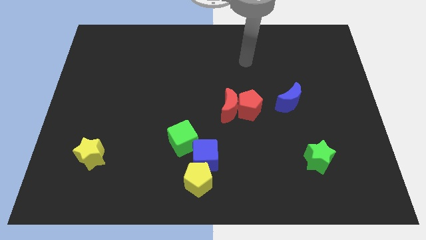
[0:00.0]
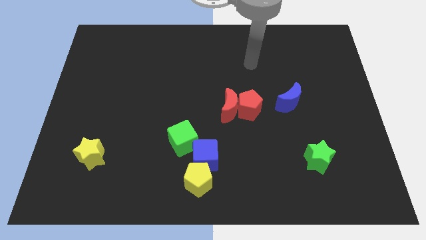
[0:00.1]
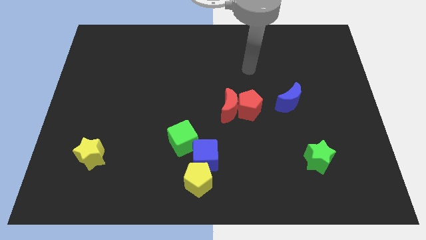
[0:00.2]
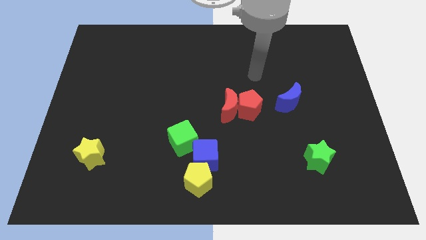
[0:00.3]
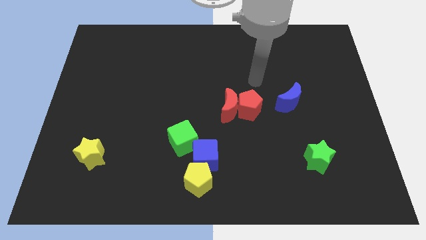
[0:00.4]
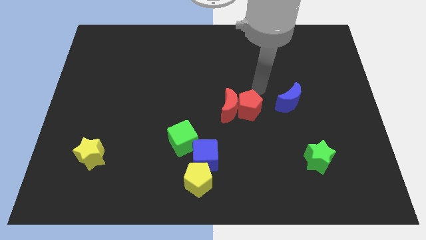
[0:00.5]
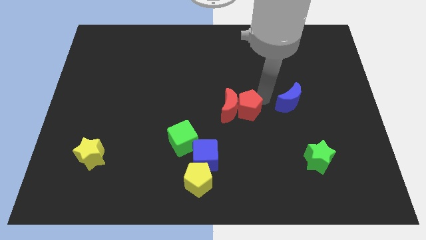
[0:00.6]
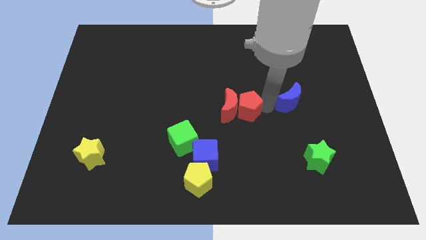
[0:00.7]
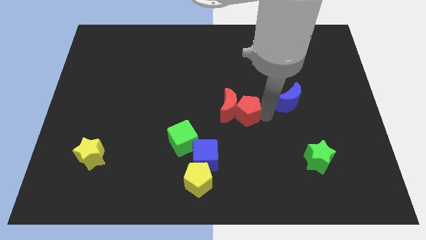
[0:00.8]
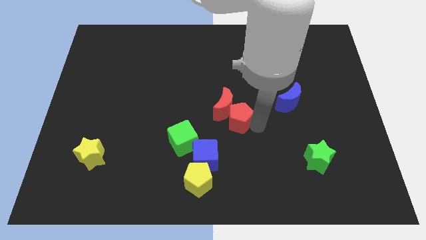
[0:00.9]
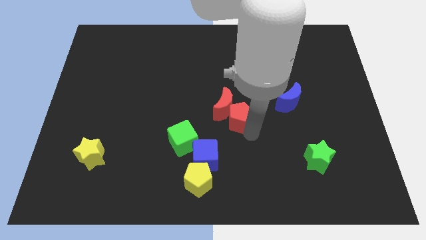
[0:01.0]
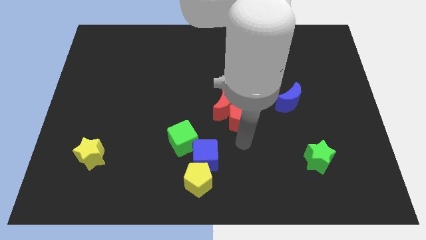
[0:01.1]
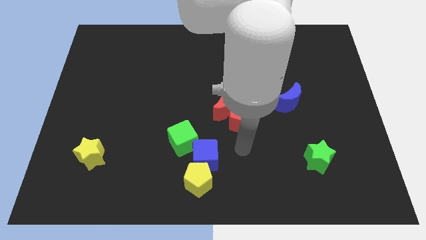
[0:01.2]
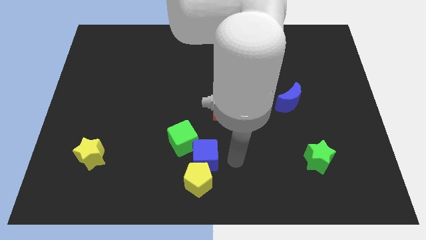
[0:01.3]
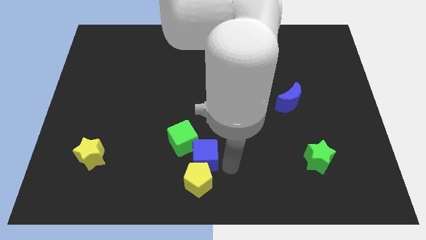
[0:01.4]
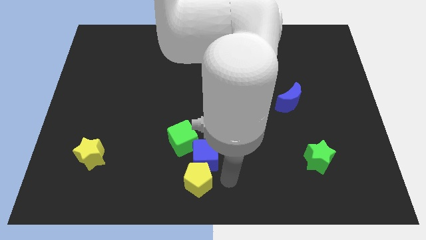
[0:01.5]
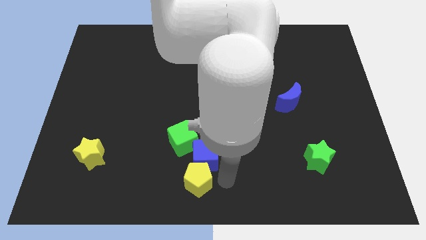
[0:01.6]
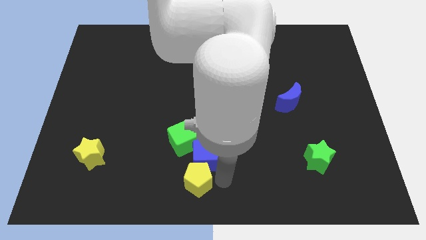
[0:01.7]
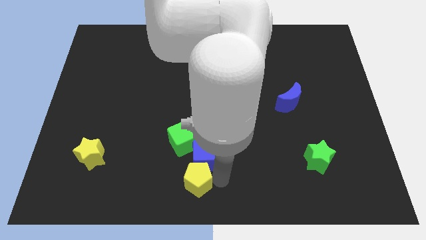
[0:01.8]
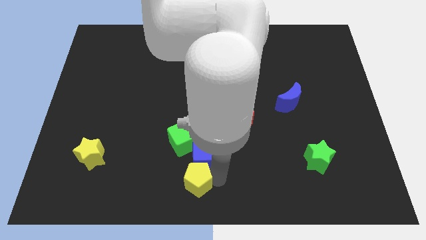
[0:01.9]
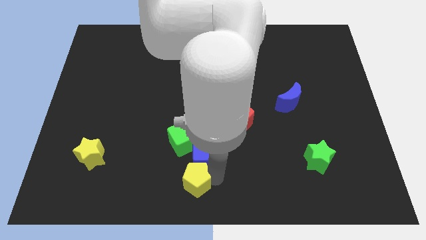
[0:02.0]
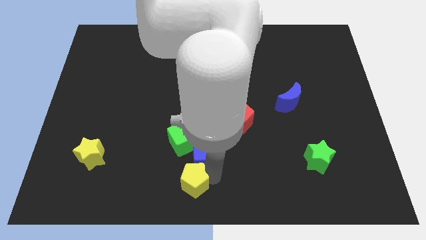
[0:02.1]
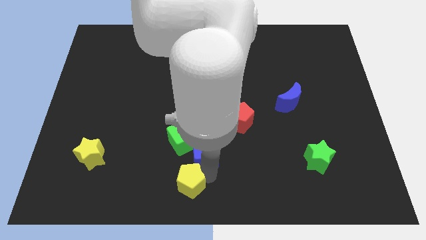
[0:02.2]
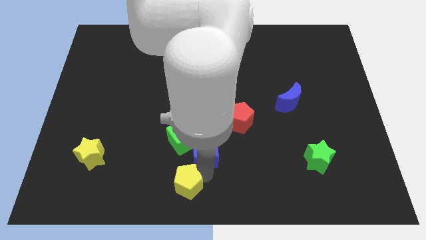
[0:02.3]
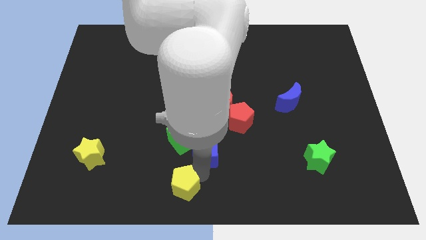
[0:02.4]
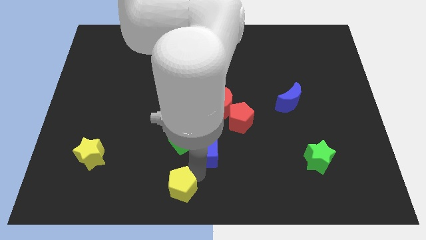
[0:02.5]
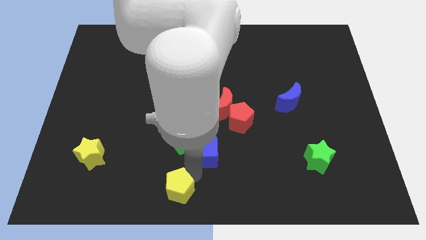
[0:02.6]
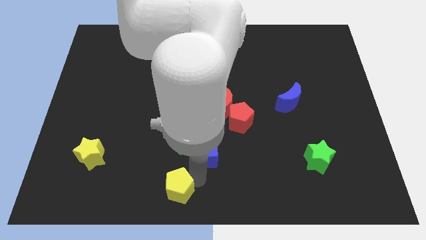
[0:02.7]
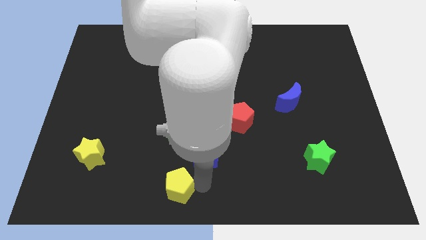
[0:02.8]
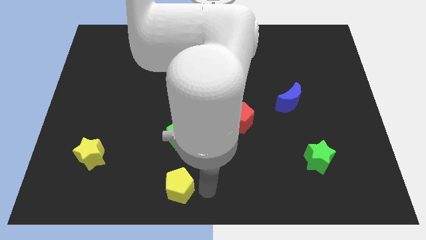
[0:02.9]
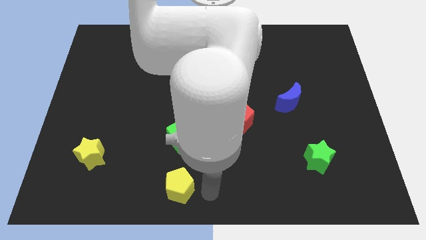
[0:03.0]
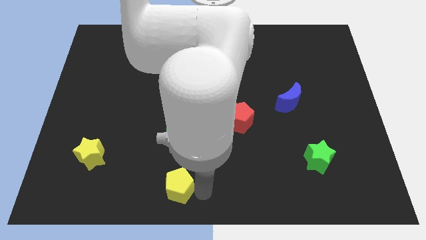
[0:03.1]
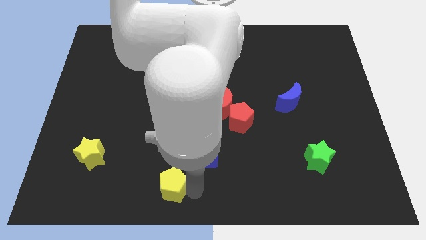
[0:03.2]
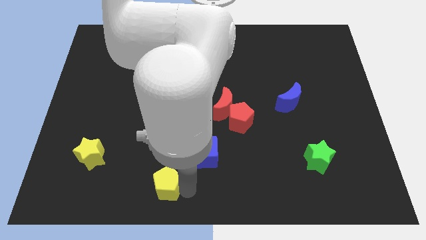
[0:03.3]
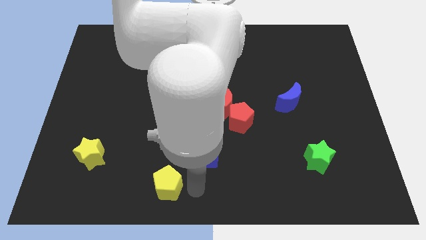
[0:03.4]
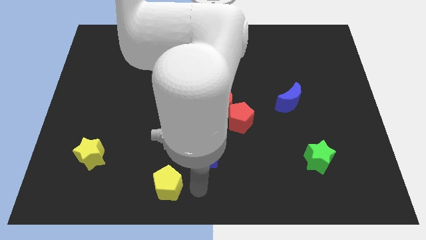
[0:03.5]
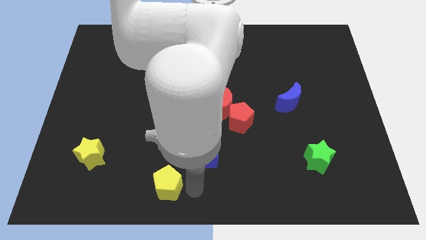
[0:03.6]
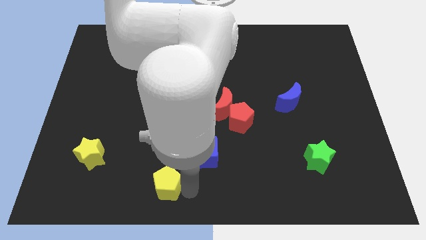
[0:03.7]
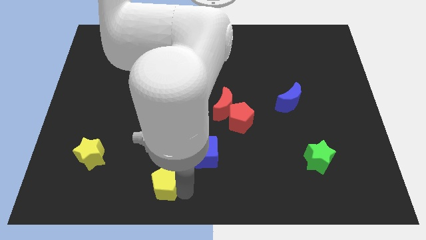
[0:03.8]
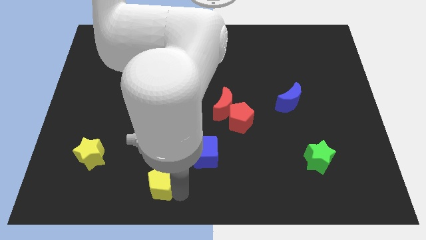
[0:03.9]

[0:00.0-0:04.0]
slightly move the yellow pentagon left

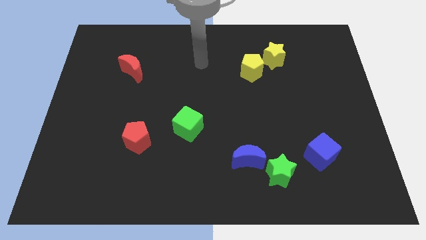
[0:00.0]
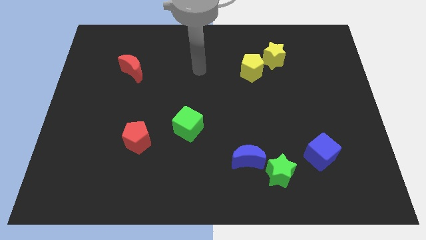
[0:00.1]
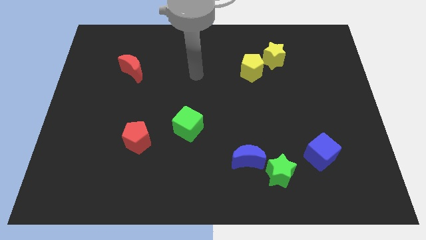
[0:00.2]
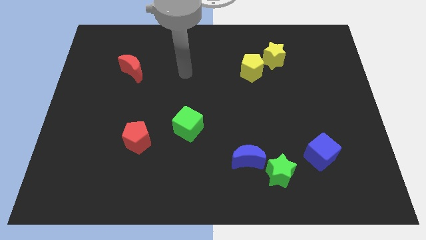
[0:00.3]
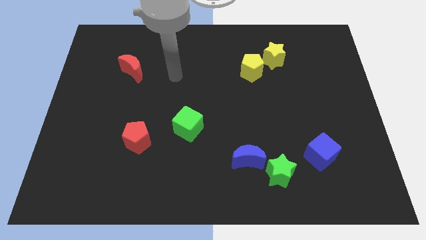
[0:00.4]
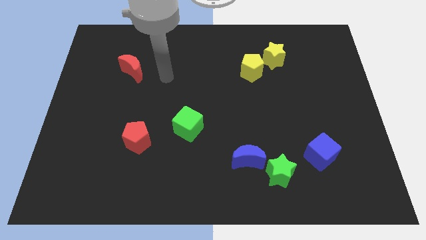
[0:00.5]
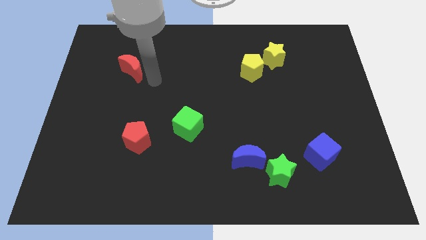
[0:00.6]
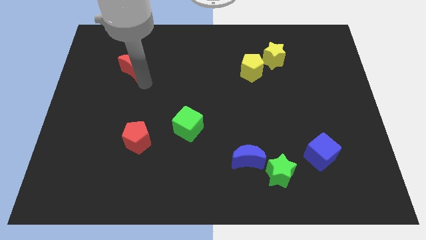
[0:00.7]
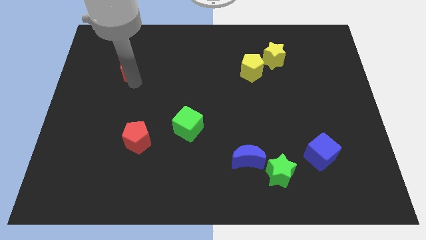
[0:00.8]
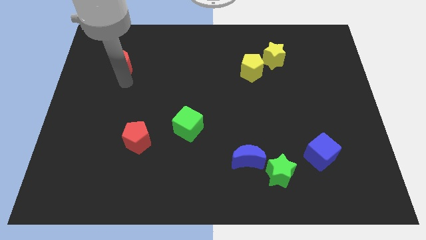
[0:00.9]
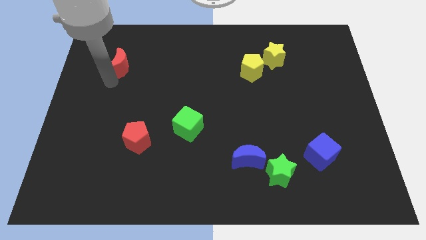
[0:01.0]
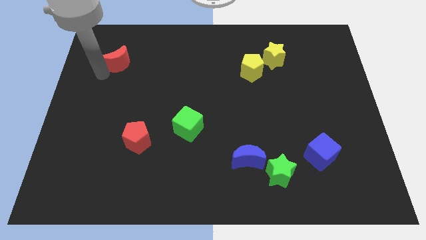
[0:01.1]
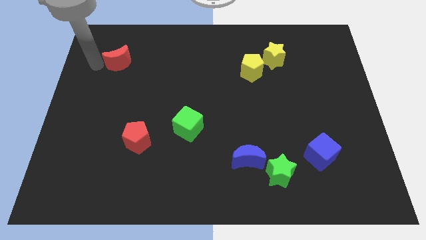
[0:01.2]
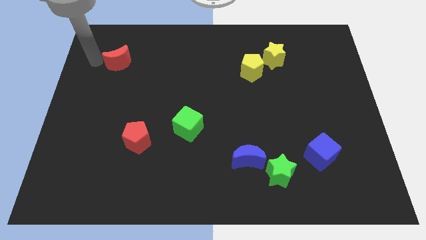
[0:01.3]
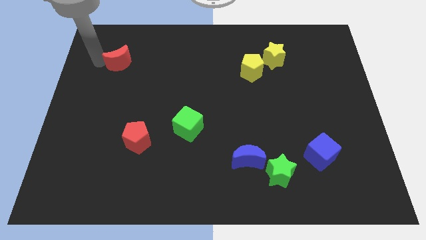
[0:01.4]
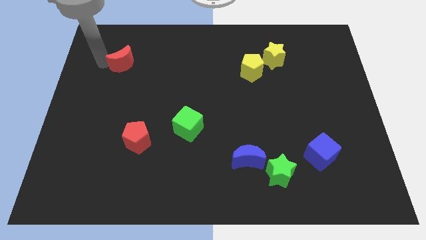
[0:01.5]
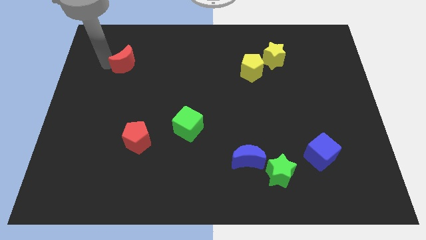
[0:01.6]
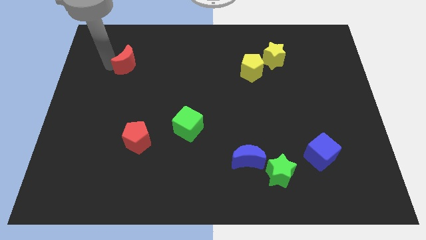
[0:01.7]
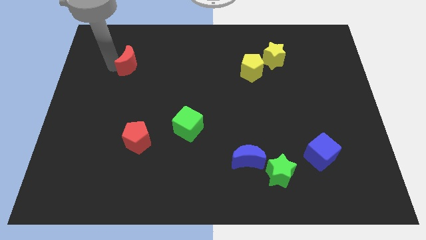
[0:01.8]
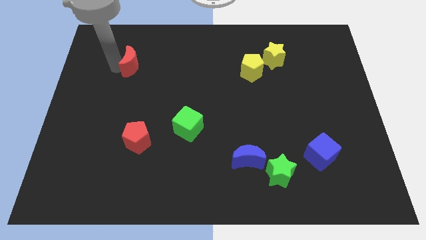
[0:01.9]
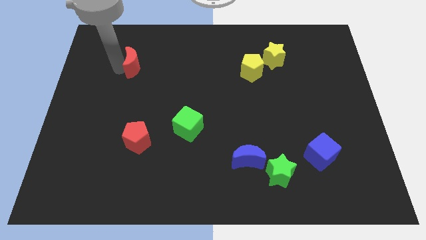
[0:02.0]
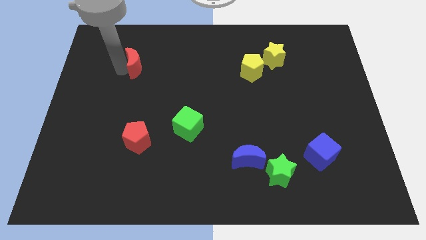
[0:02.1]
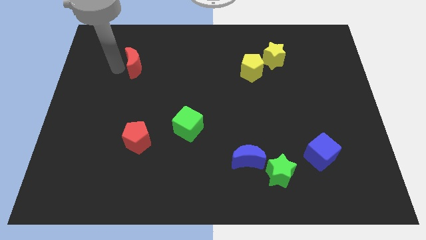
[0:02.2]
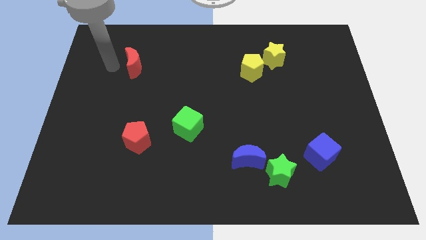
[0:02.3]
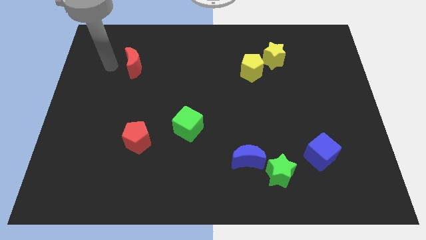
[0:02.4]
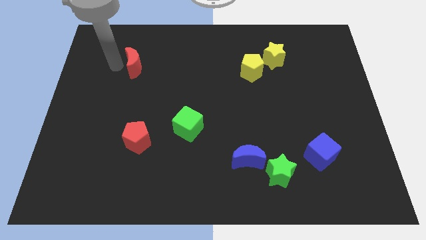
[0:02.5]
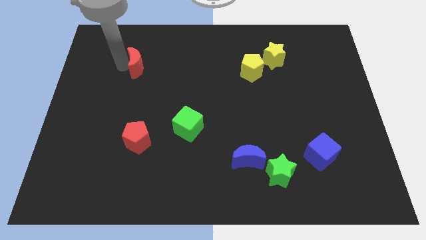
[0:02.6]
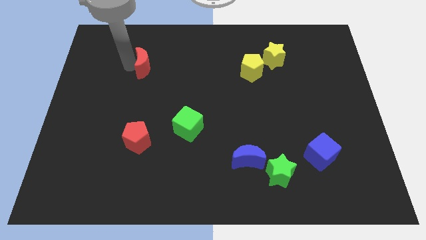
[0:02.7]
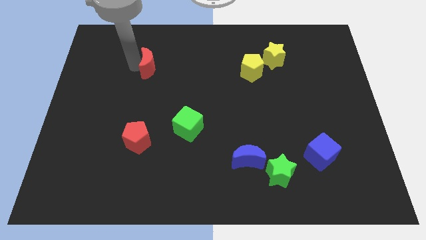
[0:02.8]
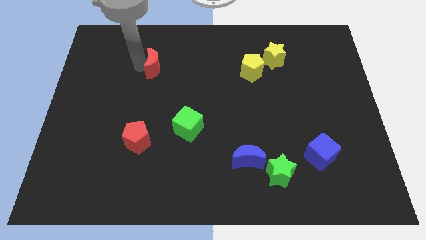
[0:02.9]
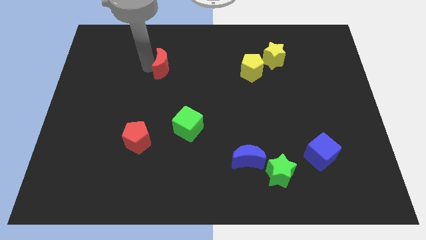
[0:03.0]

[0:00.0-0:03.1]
slightly push the red moon right

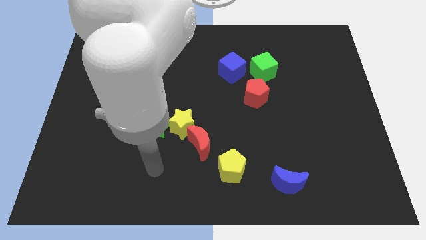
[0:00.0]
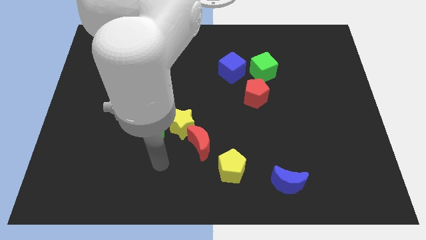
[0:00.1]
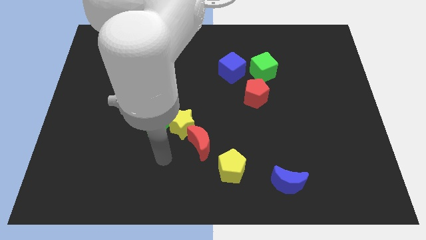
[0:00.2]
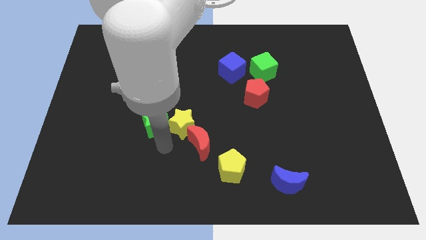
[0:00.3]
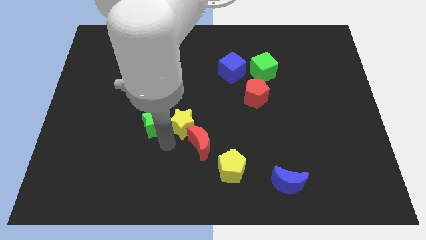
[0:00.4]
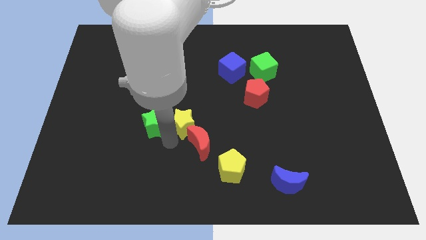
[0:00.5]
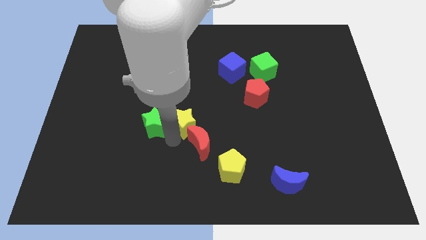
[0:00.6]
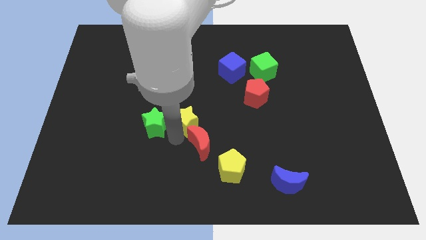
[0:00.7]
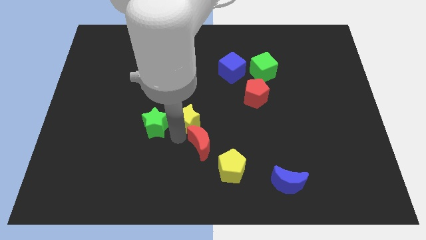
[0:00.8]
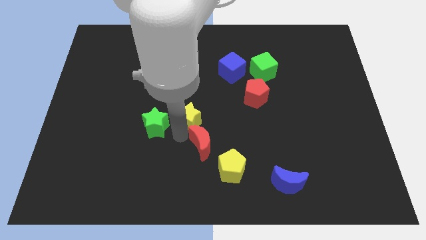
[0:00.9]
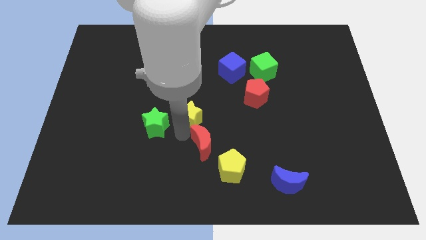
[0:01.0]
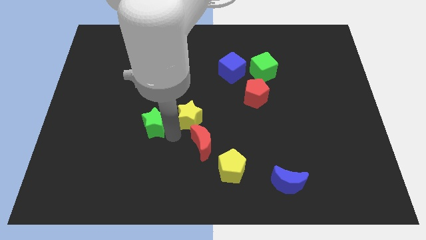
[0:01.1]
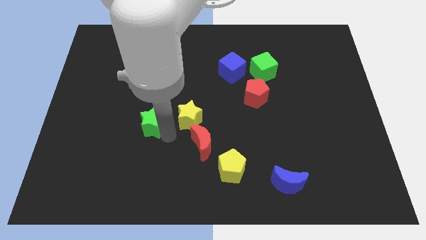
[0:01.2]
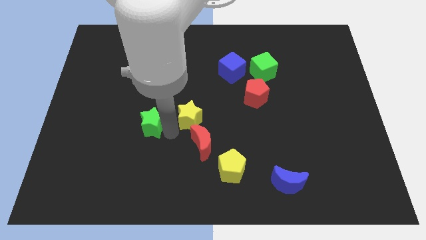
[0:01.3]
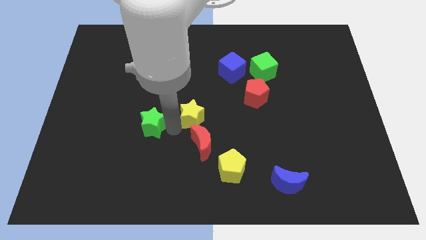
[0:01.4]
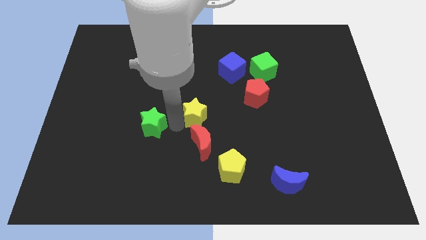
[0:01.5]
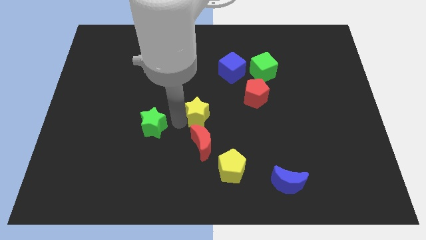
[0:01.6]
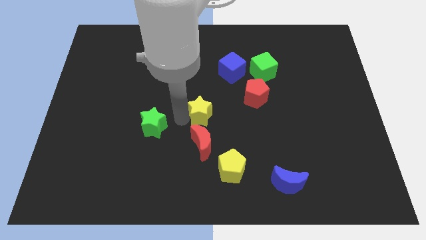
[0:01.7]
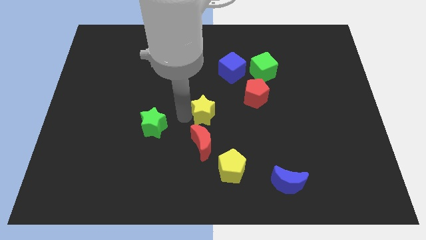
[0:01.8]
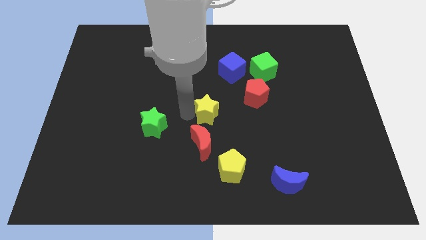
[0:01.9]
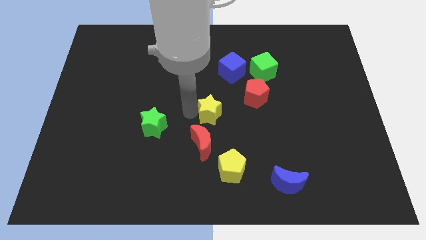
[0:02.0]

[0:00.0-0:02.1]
slide the yellow star slightly up and right
